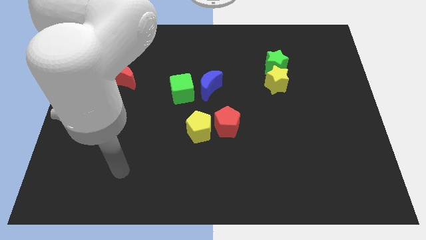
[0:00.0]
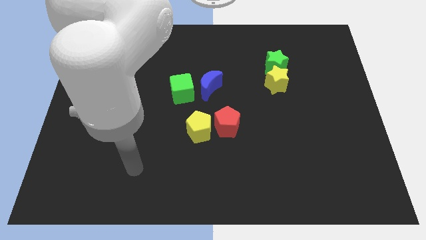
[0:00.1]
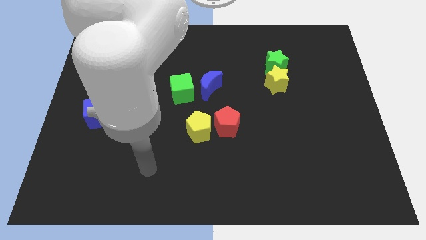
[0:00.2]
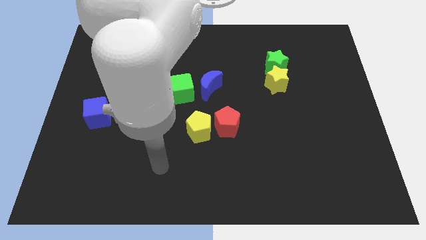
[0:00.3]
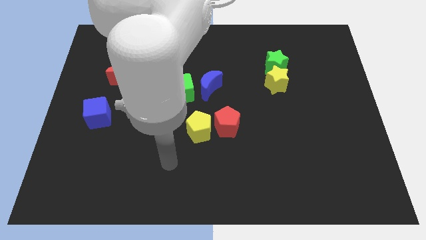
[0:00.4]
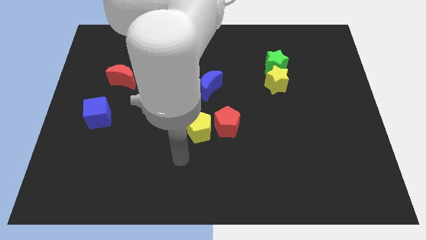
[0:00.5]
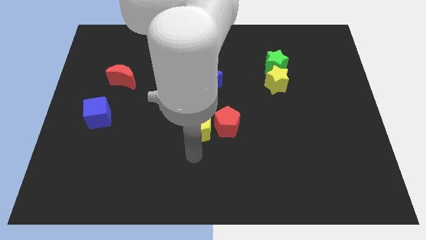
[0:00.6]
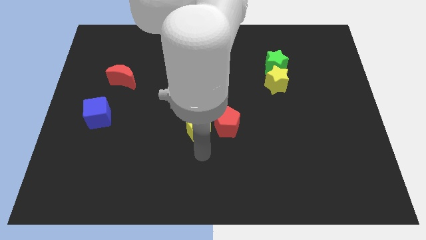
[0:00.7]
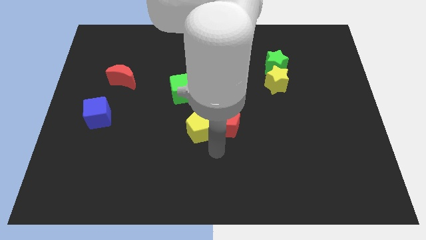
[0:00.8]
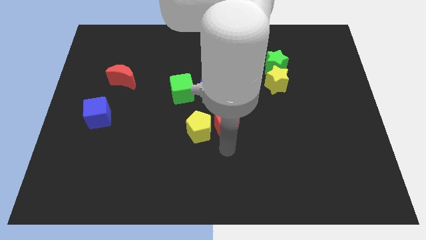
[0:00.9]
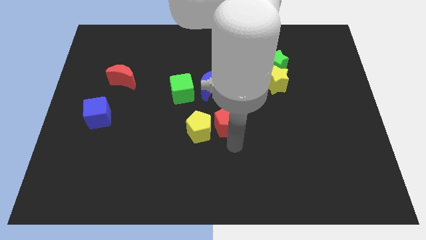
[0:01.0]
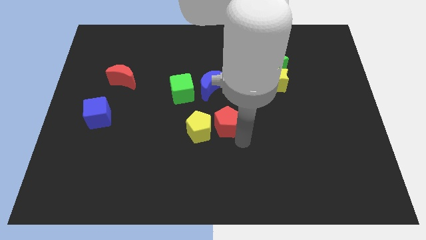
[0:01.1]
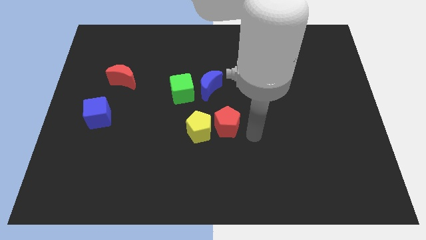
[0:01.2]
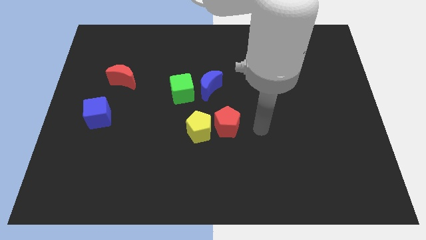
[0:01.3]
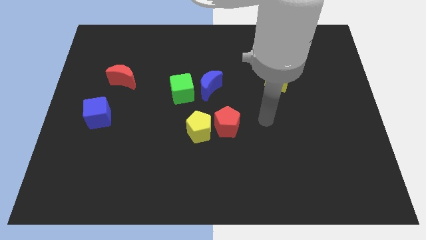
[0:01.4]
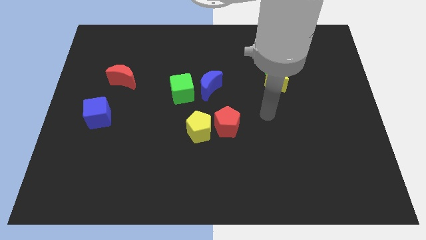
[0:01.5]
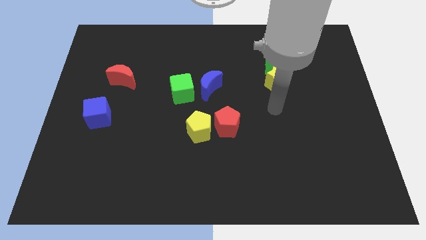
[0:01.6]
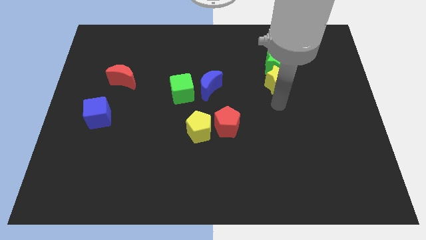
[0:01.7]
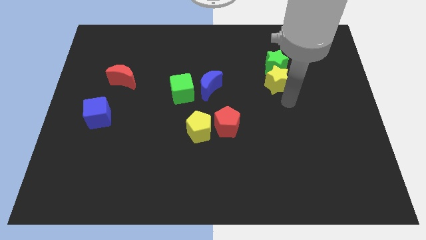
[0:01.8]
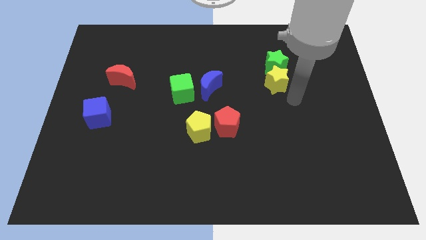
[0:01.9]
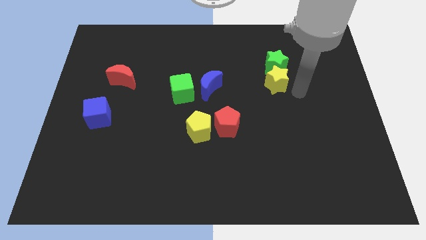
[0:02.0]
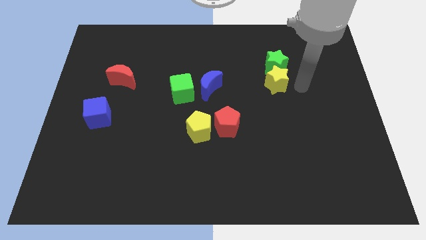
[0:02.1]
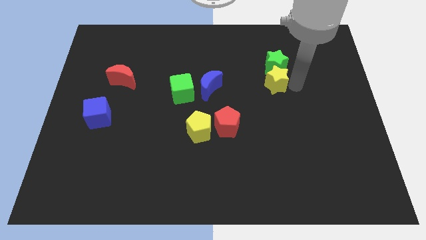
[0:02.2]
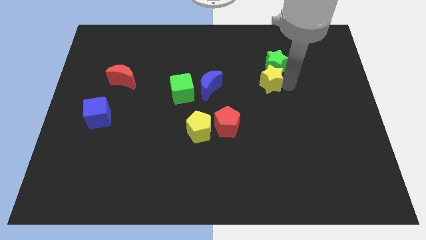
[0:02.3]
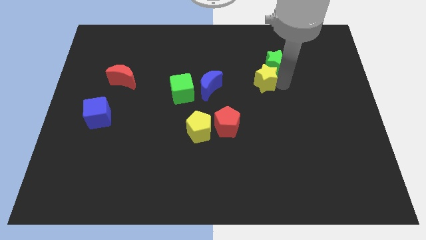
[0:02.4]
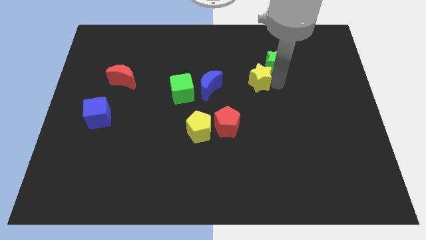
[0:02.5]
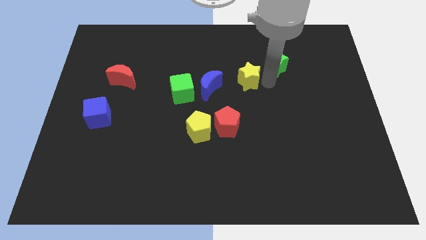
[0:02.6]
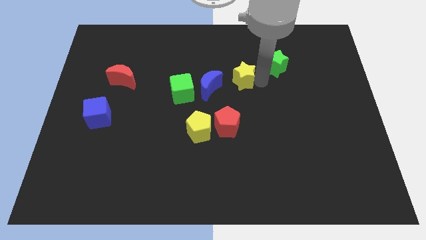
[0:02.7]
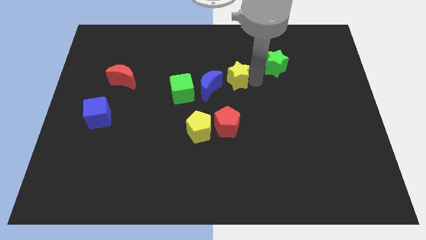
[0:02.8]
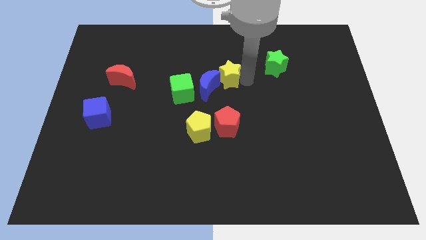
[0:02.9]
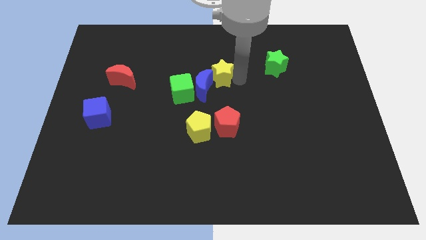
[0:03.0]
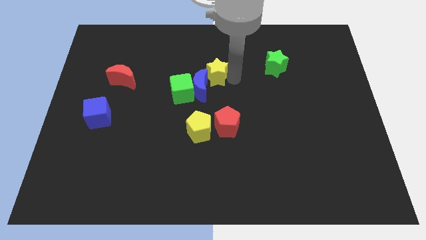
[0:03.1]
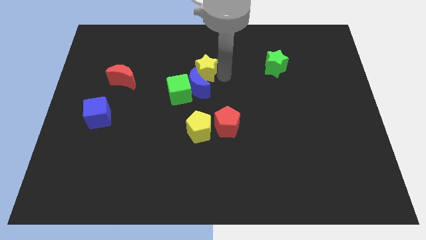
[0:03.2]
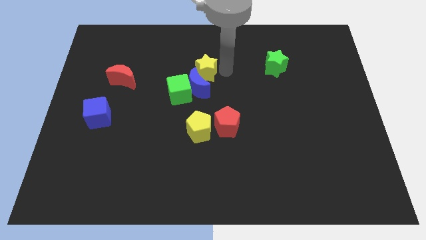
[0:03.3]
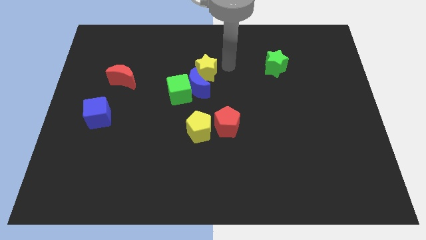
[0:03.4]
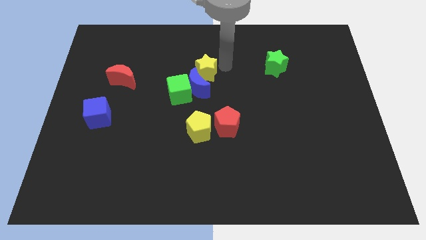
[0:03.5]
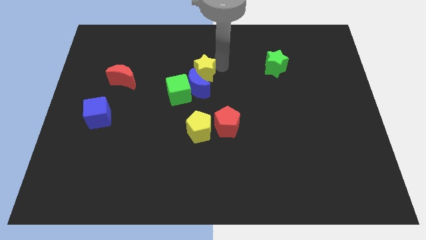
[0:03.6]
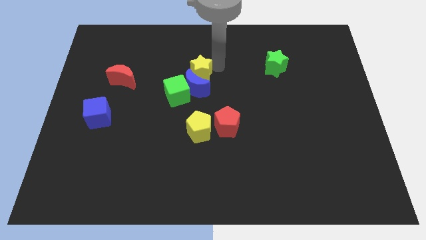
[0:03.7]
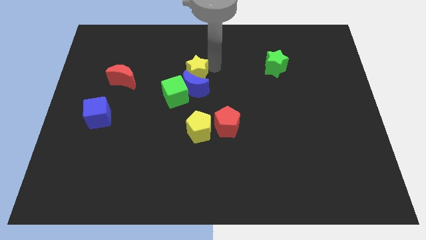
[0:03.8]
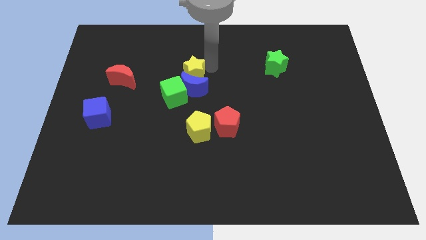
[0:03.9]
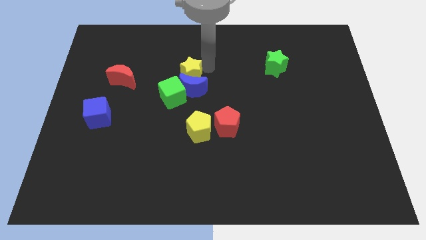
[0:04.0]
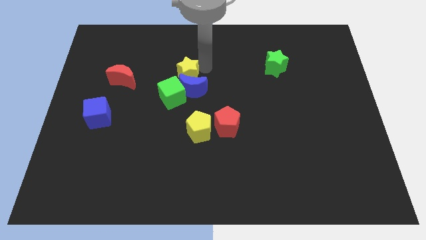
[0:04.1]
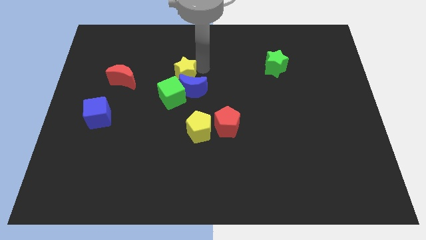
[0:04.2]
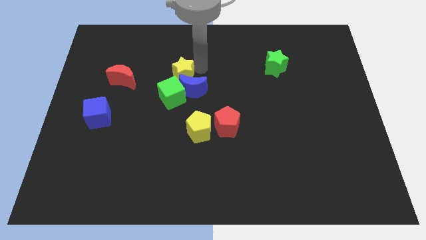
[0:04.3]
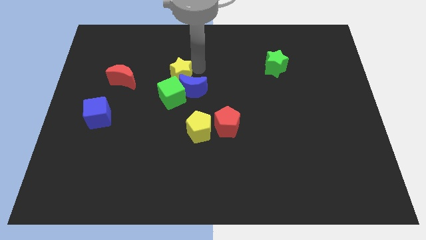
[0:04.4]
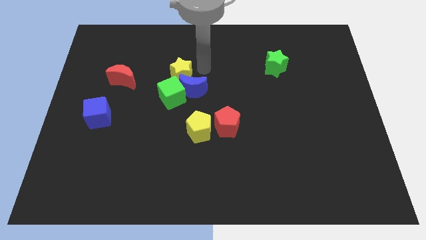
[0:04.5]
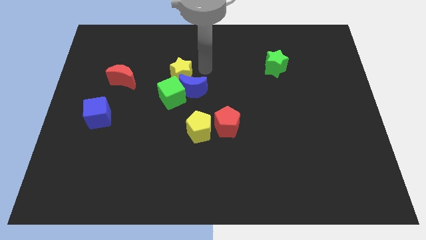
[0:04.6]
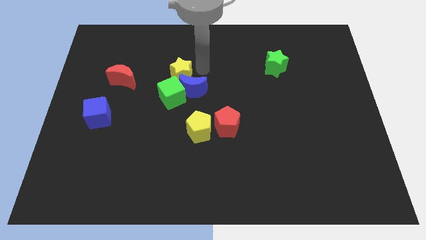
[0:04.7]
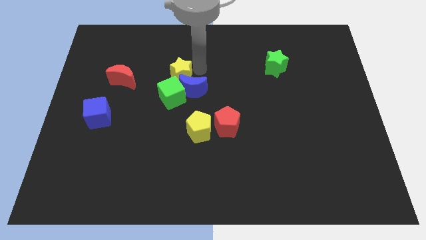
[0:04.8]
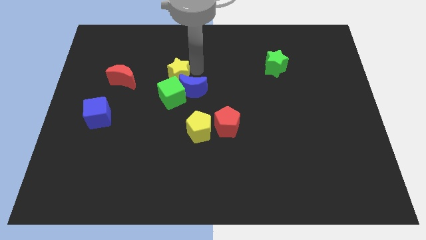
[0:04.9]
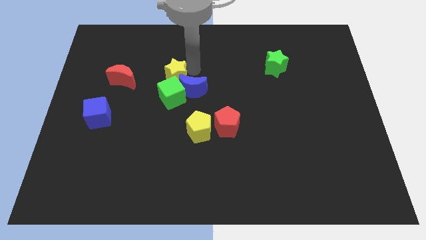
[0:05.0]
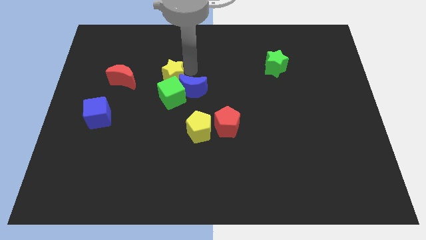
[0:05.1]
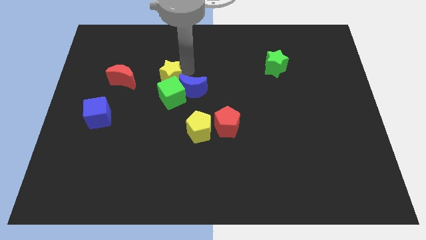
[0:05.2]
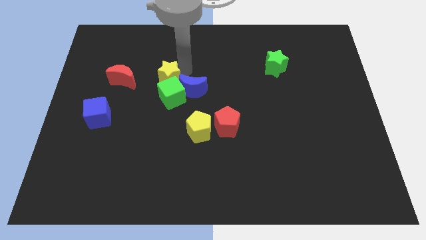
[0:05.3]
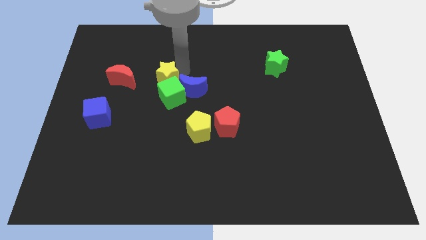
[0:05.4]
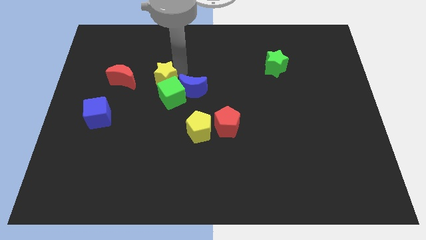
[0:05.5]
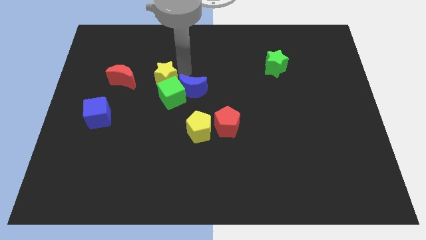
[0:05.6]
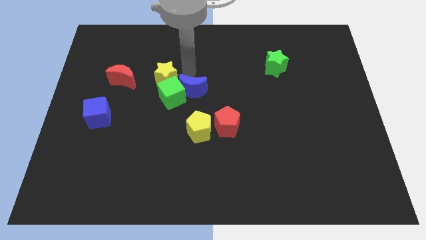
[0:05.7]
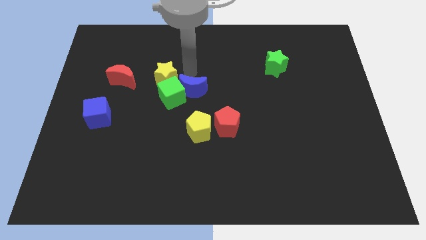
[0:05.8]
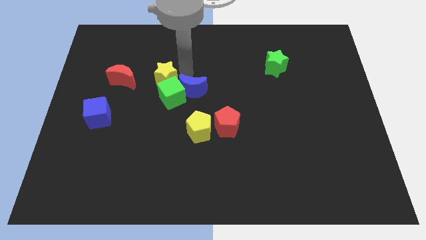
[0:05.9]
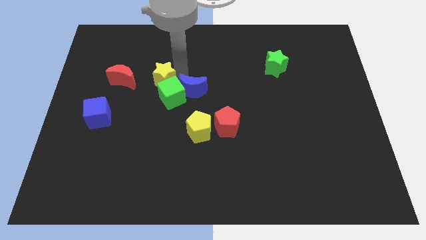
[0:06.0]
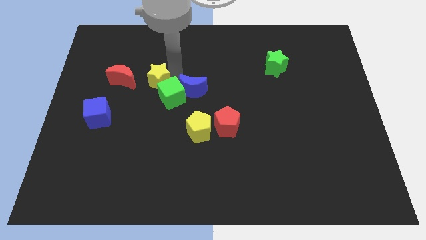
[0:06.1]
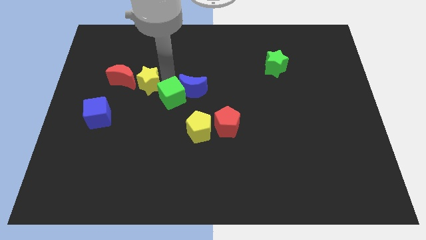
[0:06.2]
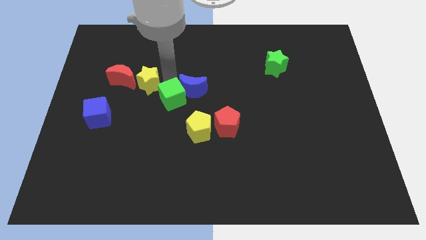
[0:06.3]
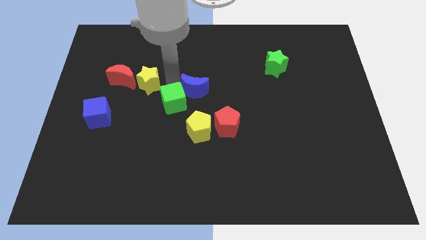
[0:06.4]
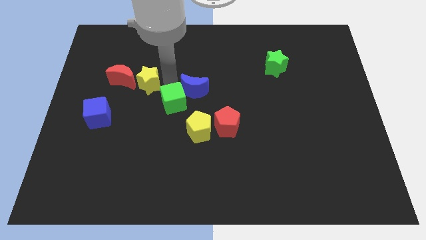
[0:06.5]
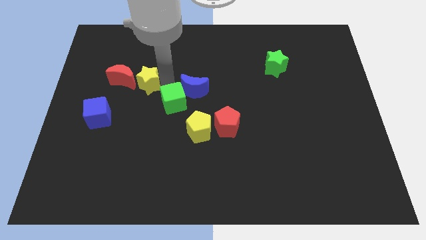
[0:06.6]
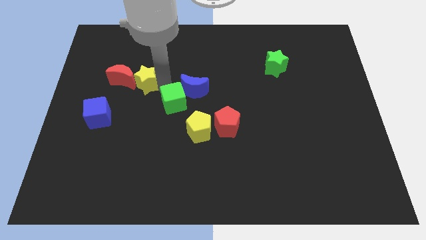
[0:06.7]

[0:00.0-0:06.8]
slide the yellow star next to the red moon
